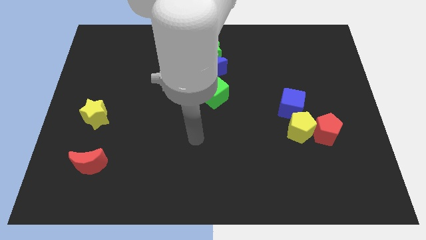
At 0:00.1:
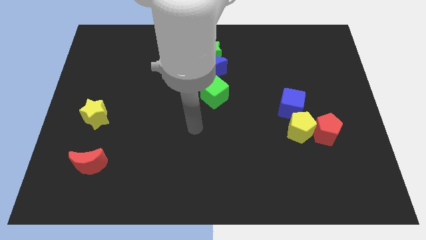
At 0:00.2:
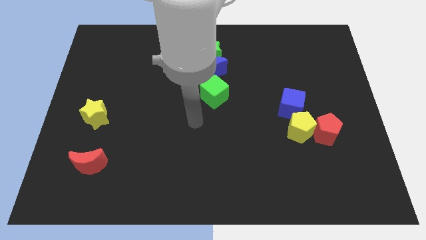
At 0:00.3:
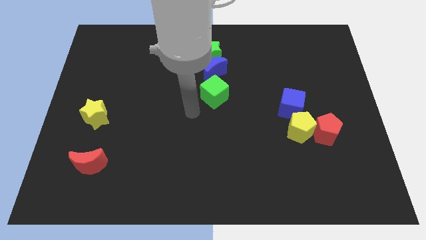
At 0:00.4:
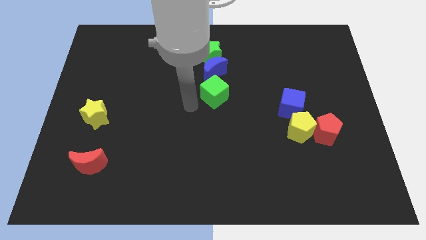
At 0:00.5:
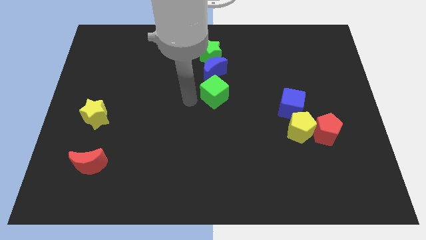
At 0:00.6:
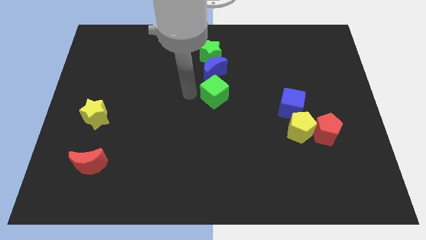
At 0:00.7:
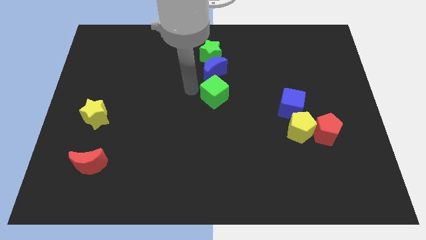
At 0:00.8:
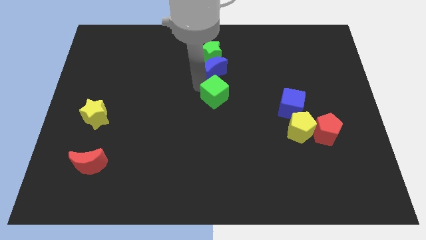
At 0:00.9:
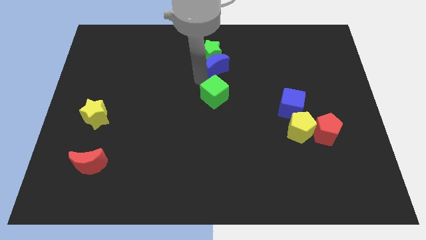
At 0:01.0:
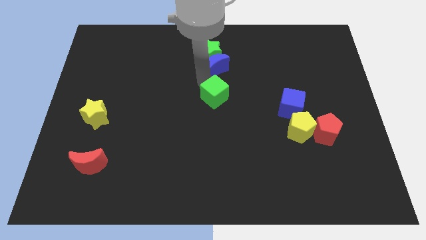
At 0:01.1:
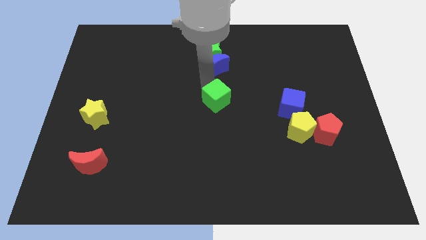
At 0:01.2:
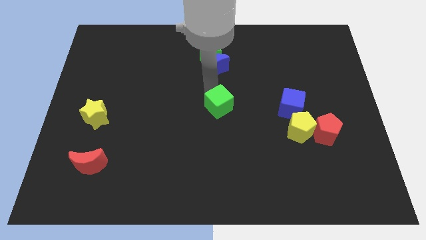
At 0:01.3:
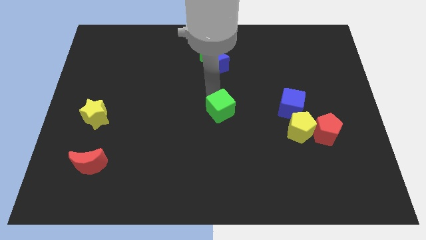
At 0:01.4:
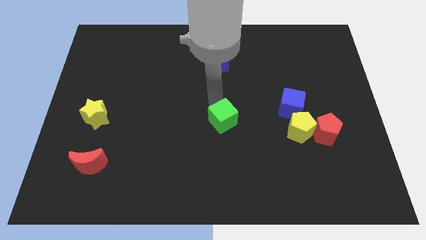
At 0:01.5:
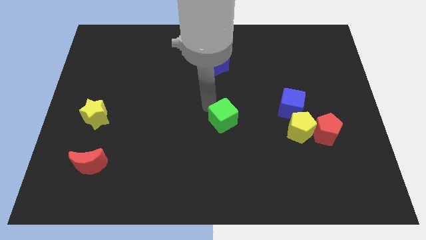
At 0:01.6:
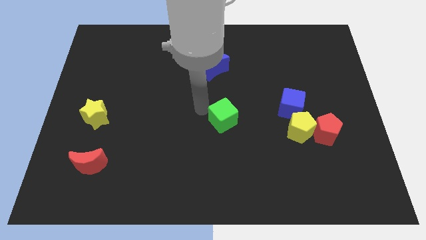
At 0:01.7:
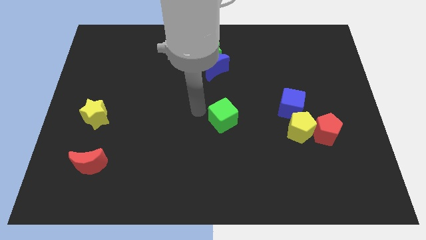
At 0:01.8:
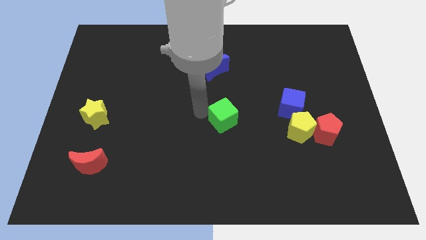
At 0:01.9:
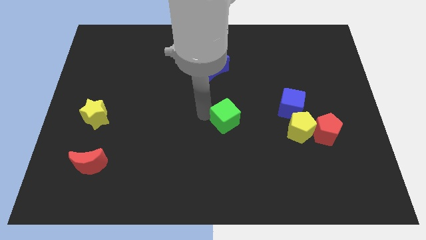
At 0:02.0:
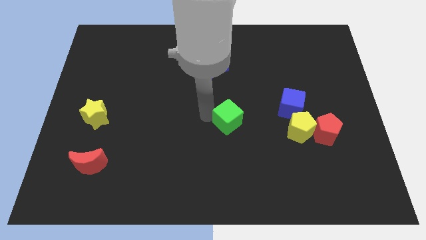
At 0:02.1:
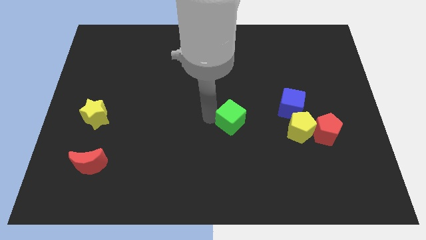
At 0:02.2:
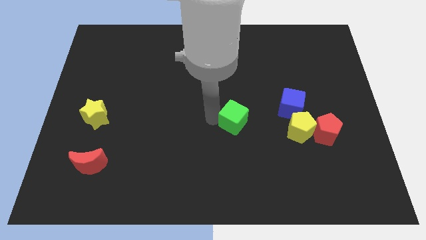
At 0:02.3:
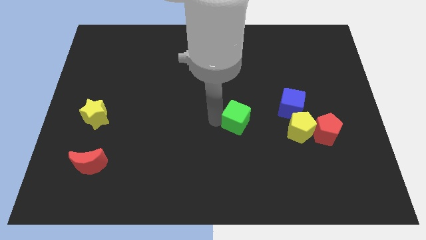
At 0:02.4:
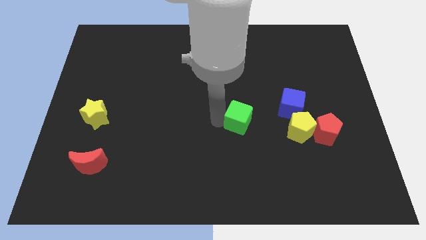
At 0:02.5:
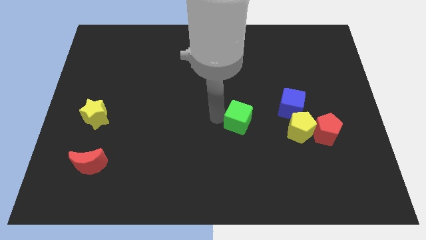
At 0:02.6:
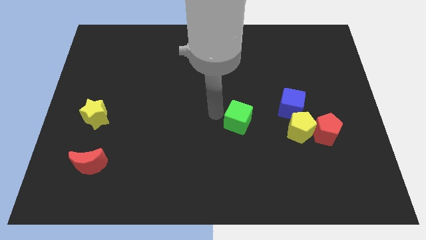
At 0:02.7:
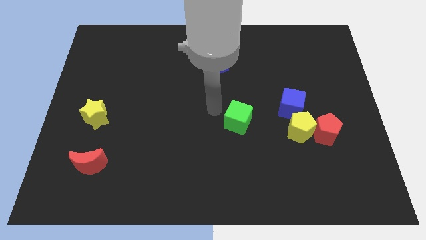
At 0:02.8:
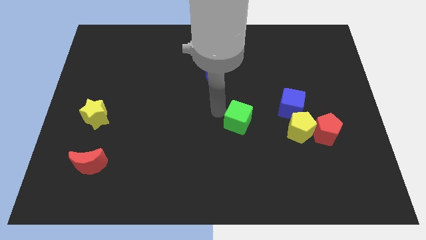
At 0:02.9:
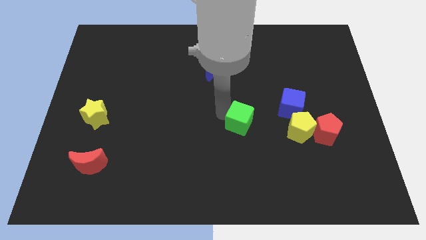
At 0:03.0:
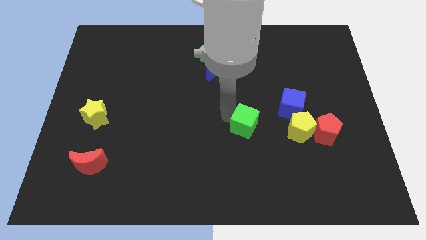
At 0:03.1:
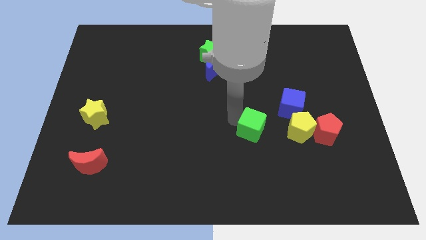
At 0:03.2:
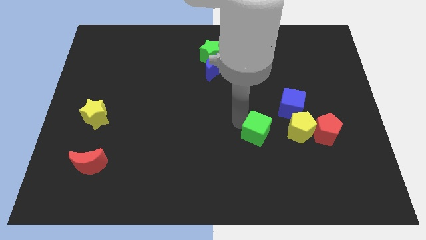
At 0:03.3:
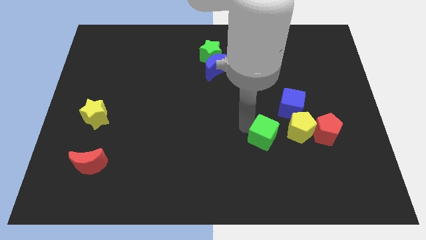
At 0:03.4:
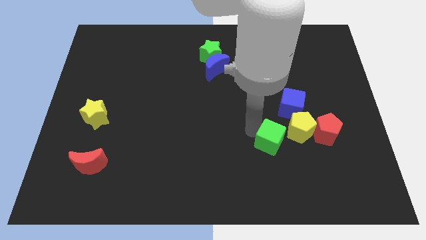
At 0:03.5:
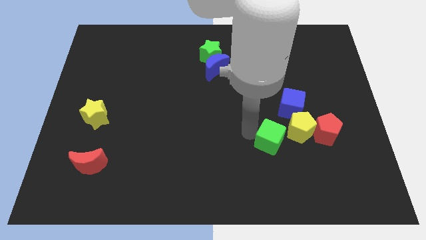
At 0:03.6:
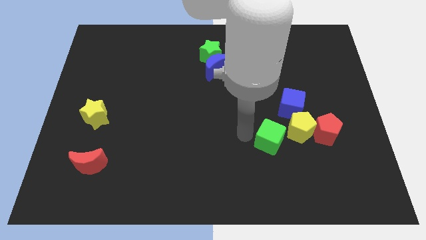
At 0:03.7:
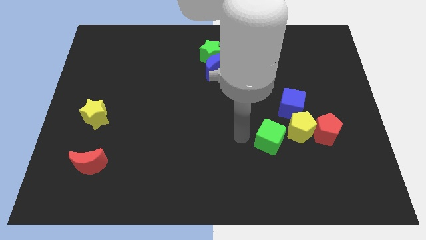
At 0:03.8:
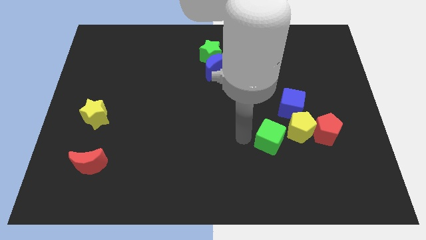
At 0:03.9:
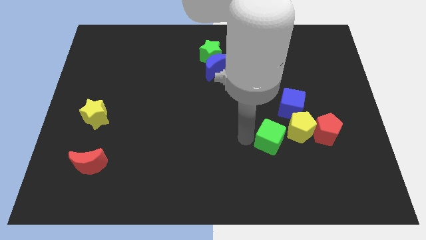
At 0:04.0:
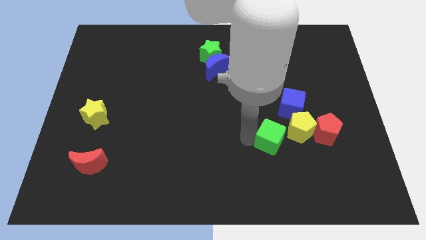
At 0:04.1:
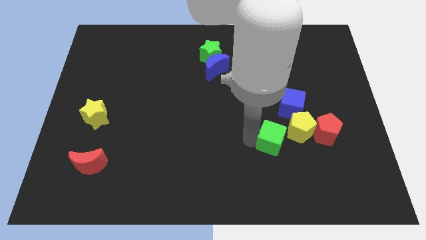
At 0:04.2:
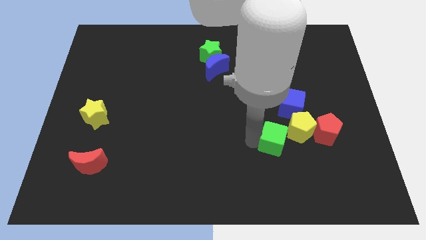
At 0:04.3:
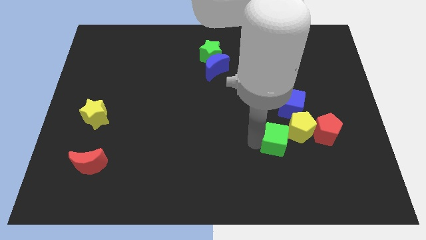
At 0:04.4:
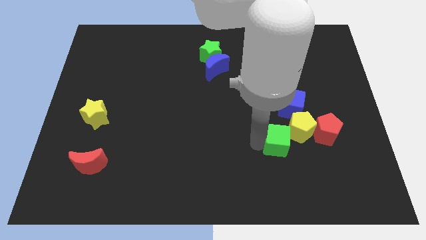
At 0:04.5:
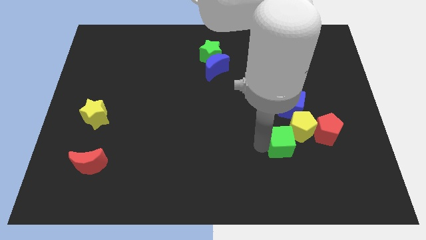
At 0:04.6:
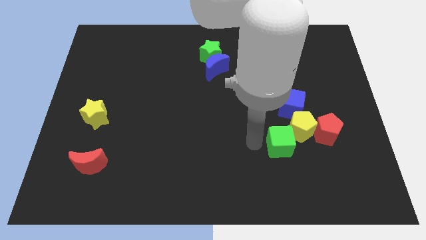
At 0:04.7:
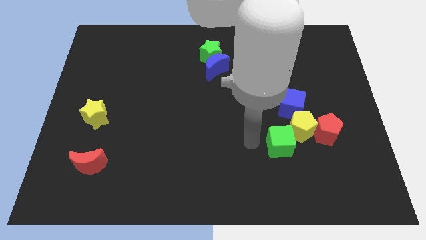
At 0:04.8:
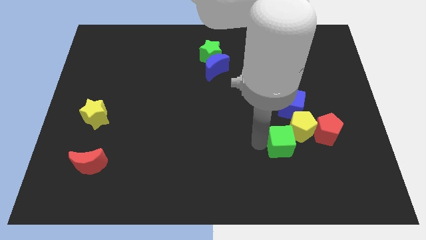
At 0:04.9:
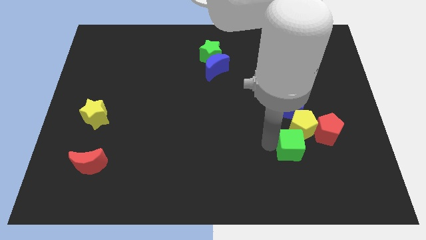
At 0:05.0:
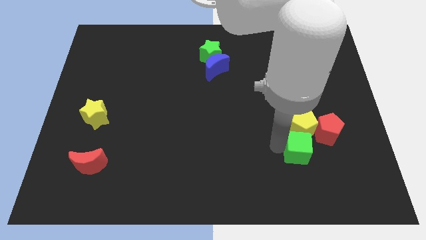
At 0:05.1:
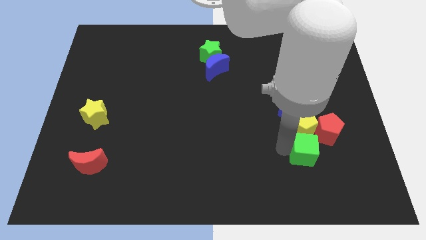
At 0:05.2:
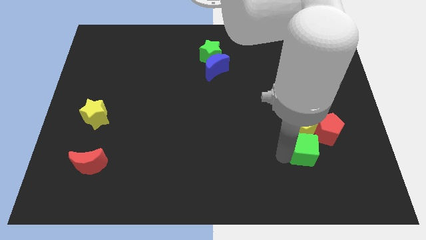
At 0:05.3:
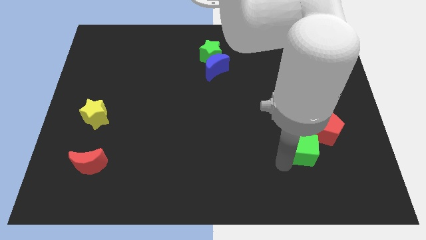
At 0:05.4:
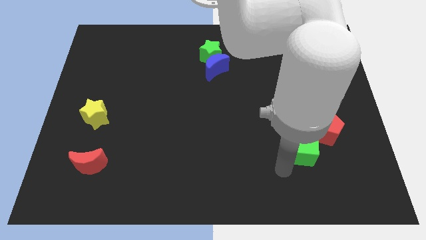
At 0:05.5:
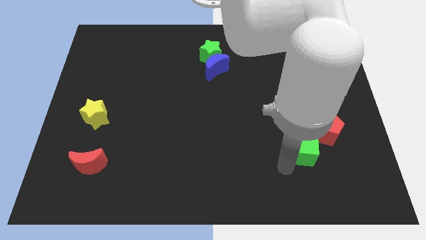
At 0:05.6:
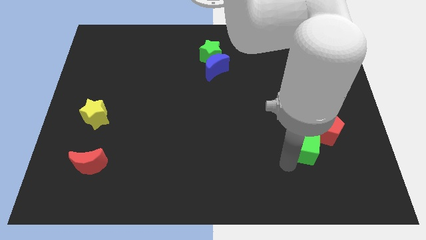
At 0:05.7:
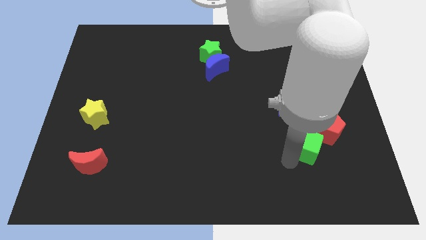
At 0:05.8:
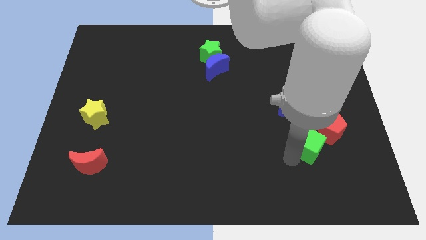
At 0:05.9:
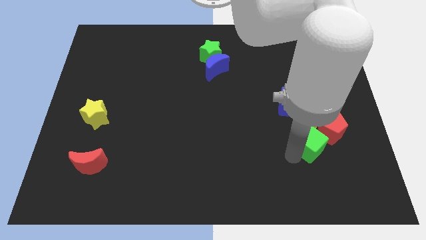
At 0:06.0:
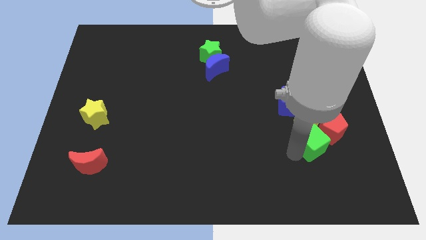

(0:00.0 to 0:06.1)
put the green cube to the red pentagon

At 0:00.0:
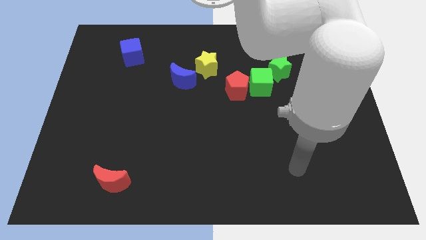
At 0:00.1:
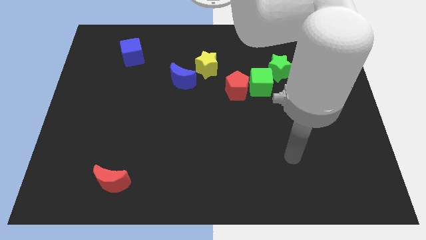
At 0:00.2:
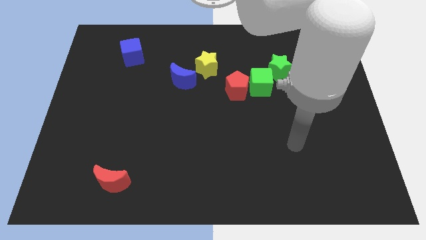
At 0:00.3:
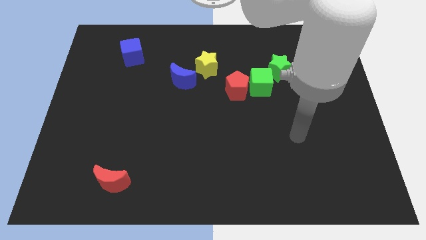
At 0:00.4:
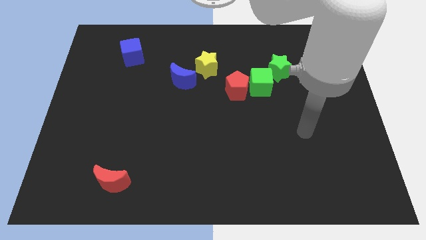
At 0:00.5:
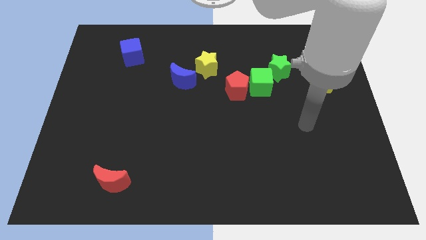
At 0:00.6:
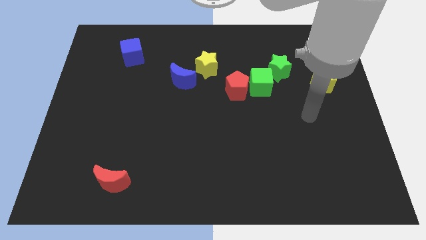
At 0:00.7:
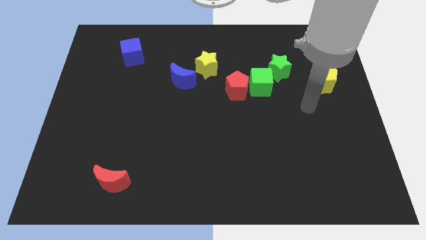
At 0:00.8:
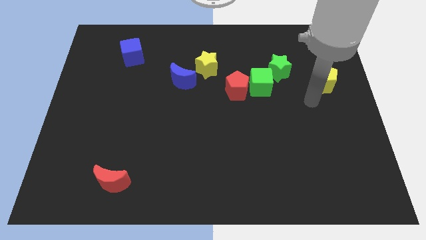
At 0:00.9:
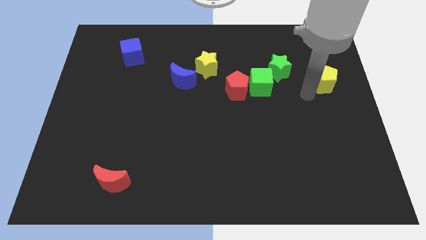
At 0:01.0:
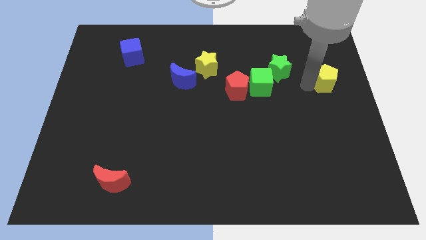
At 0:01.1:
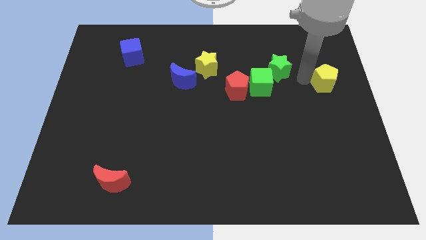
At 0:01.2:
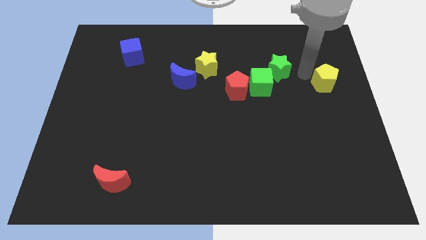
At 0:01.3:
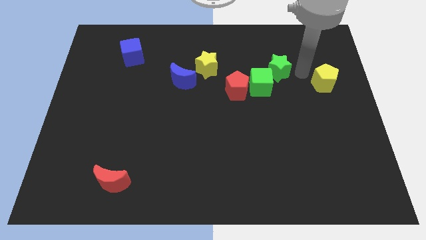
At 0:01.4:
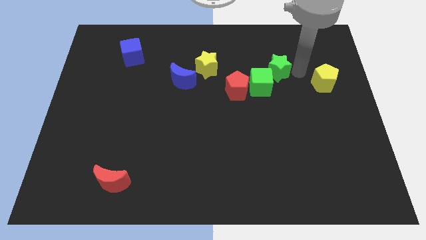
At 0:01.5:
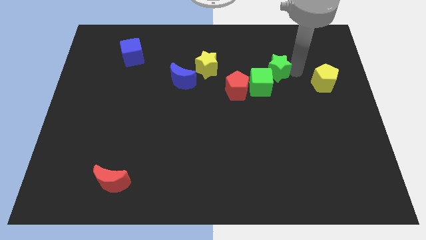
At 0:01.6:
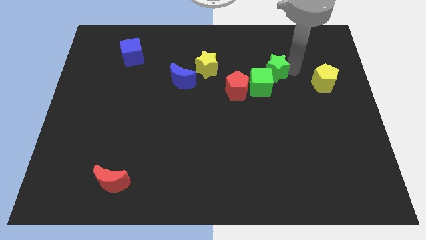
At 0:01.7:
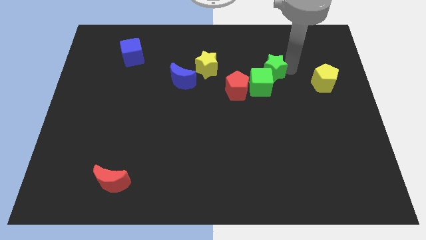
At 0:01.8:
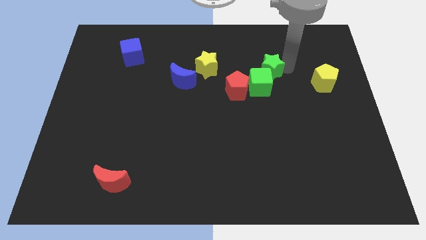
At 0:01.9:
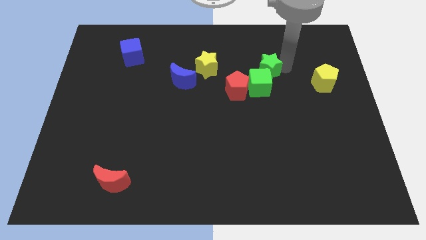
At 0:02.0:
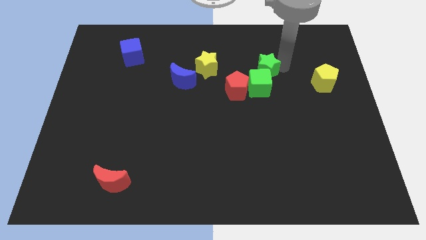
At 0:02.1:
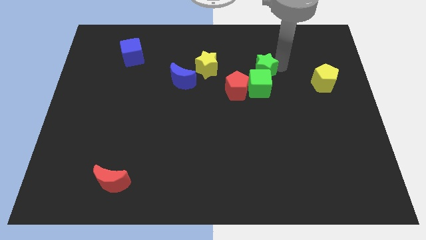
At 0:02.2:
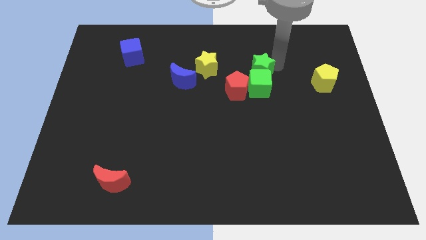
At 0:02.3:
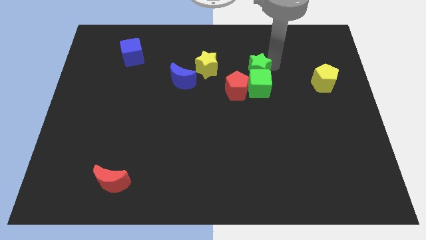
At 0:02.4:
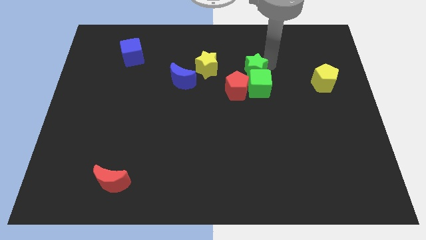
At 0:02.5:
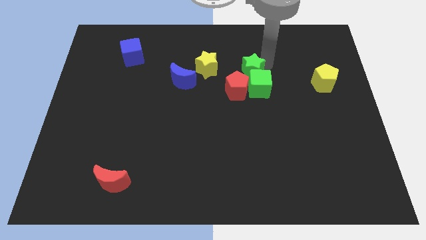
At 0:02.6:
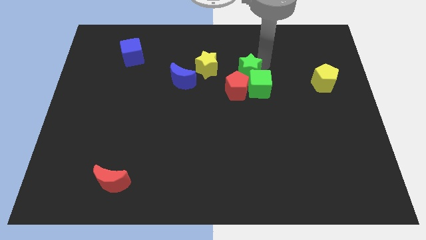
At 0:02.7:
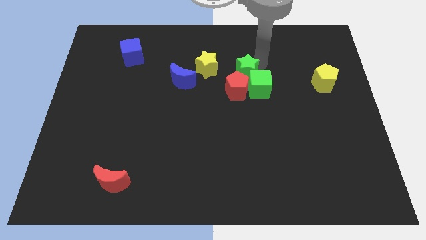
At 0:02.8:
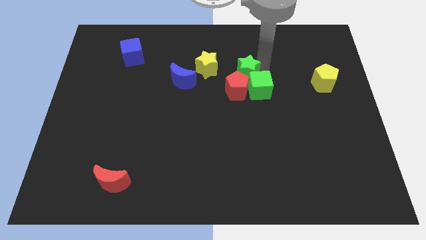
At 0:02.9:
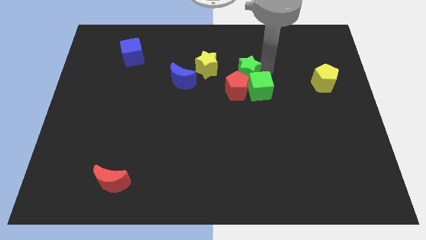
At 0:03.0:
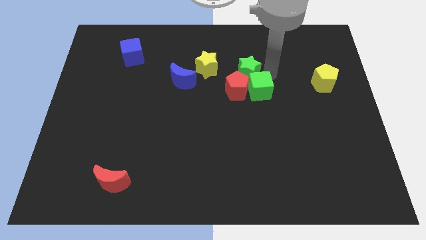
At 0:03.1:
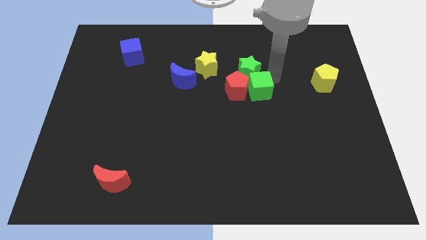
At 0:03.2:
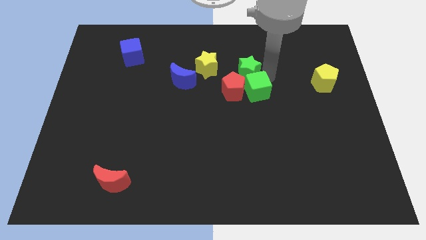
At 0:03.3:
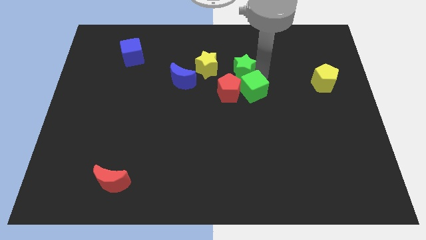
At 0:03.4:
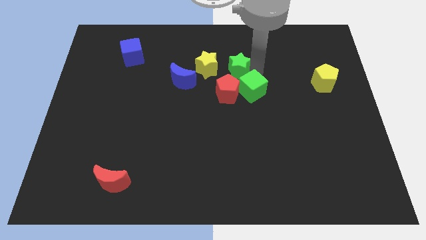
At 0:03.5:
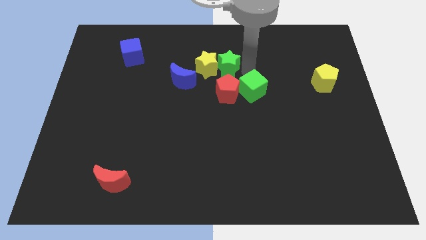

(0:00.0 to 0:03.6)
push the green star to the yellow star
